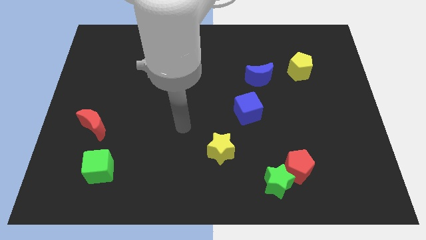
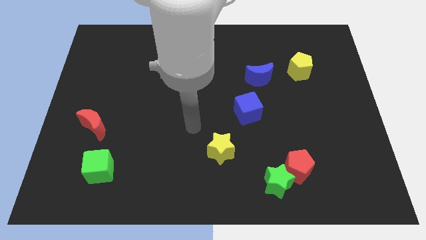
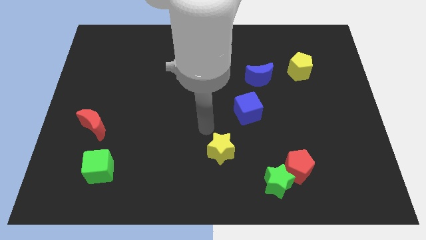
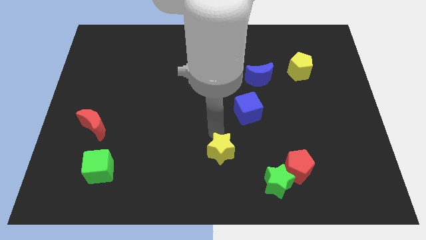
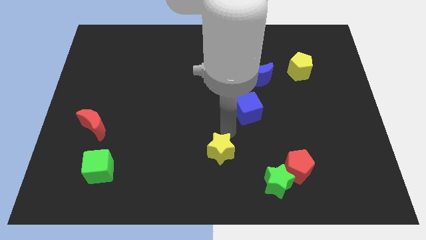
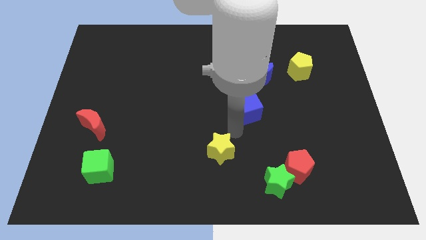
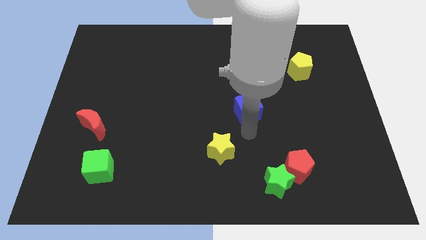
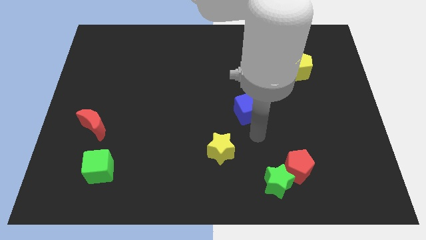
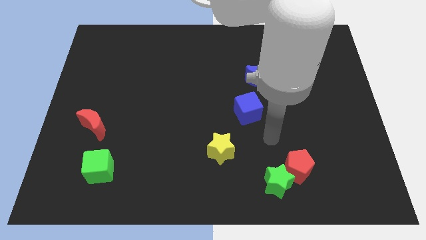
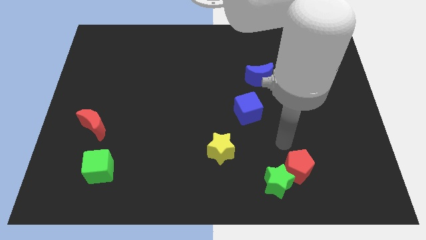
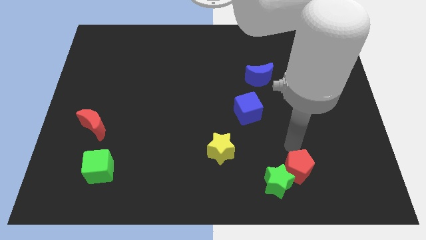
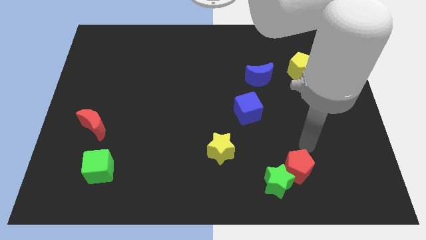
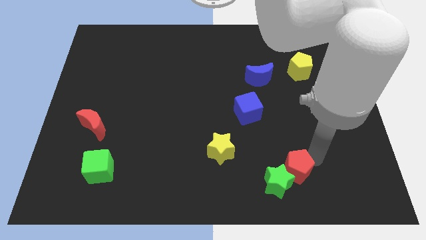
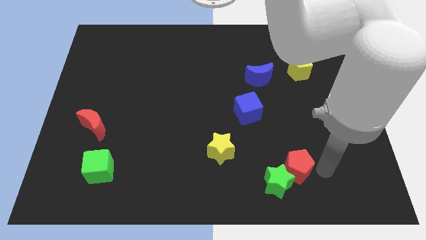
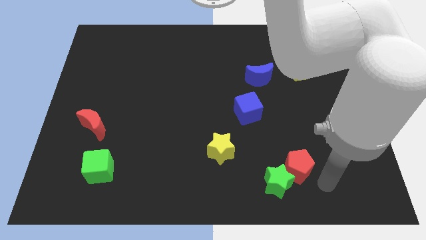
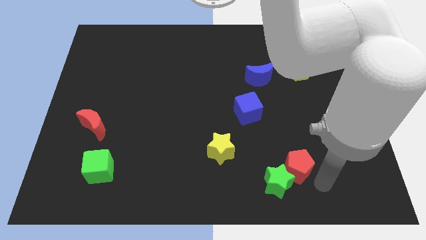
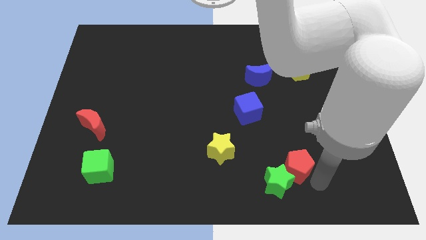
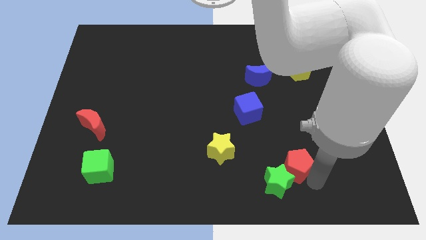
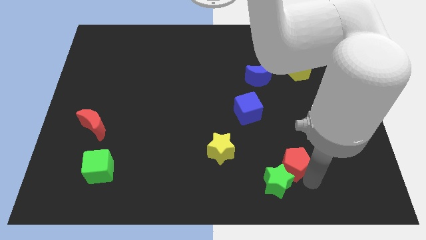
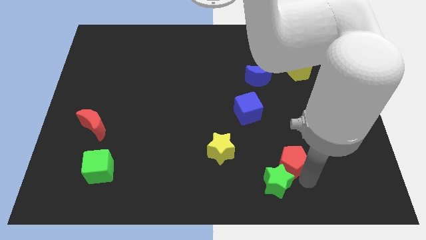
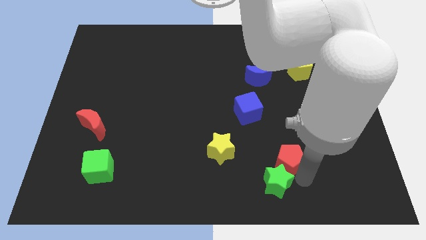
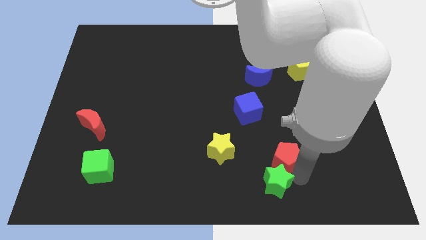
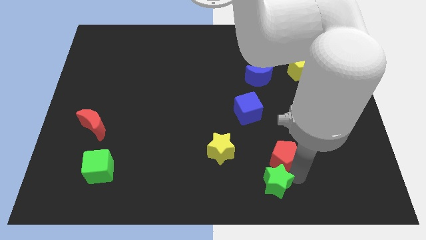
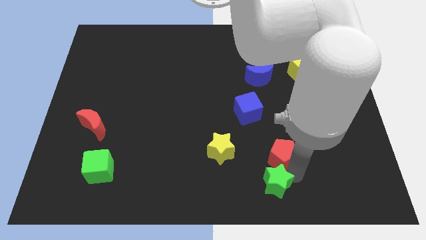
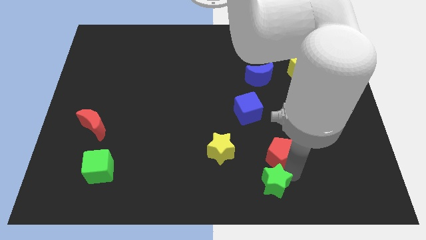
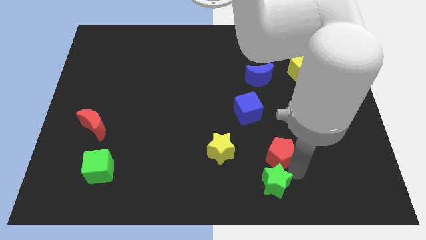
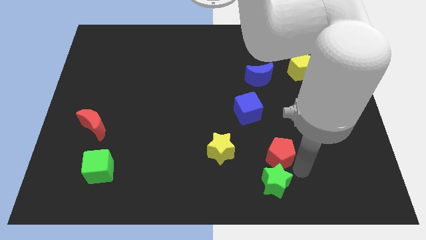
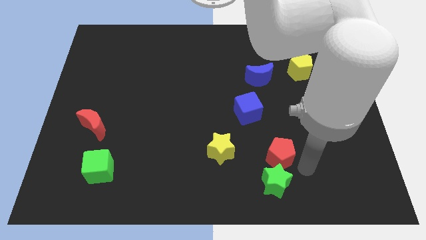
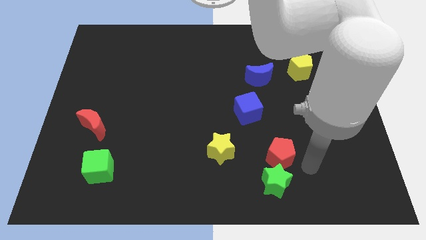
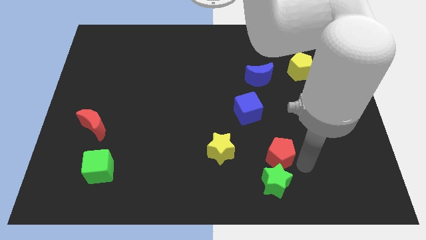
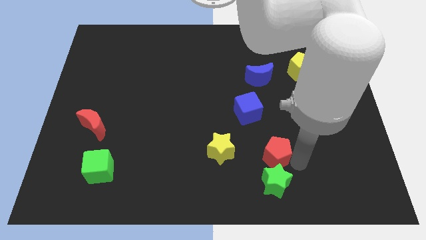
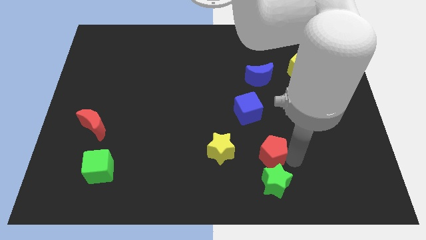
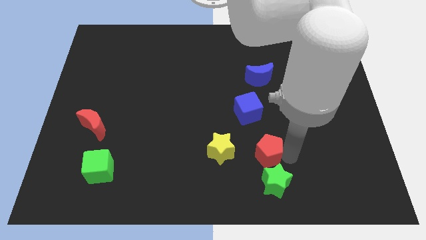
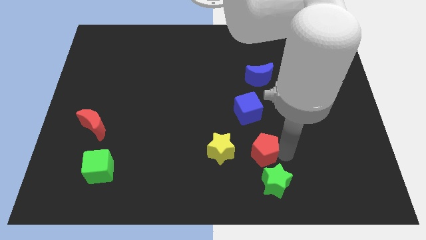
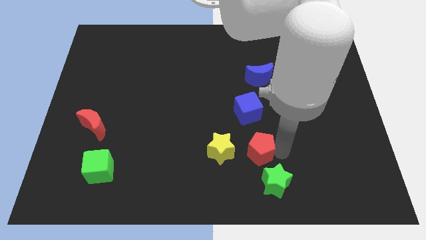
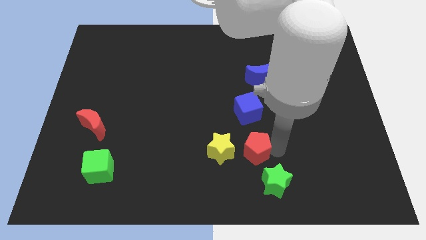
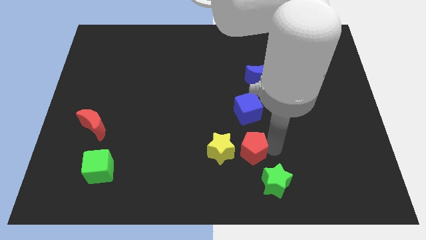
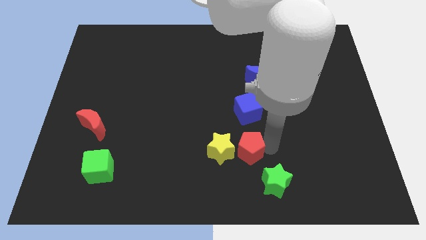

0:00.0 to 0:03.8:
push the red pentagon towards the yellow star

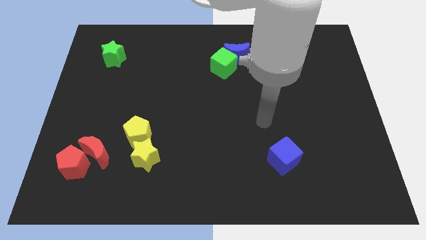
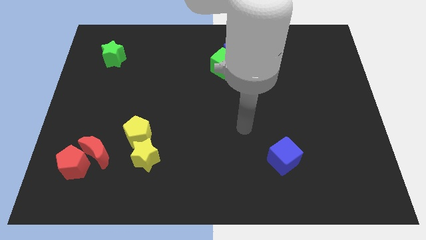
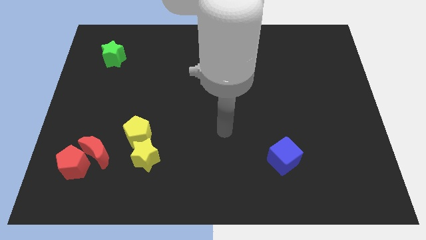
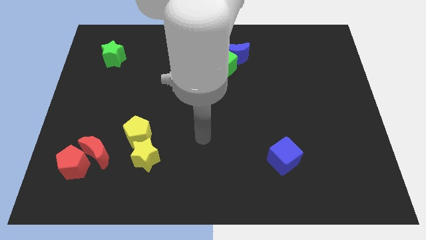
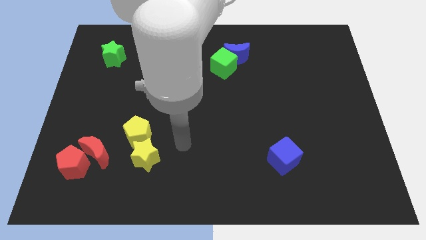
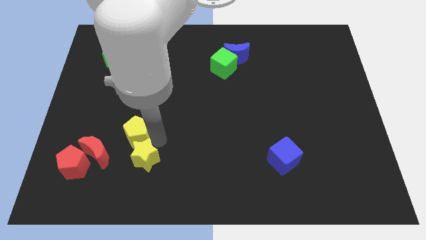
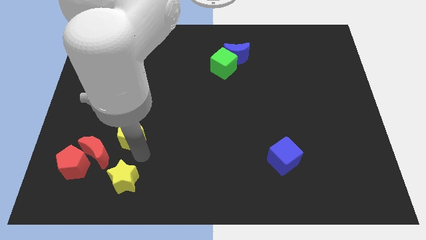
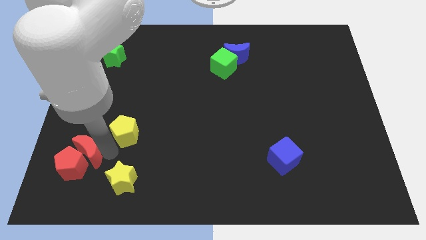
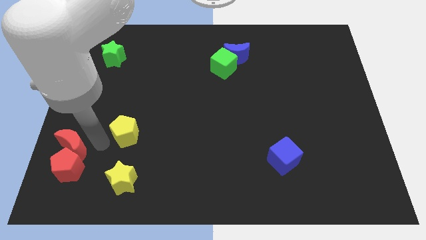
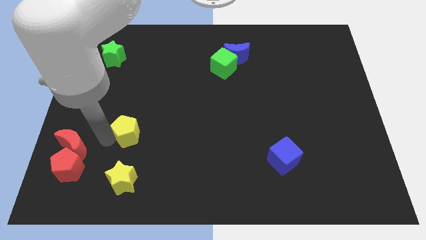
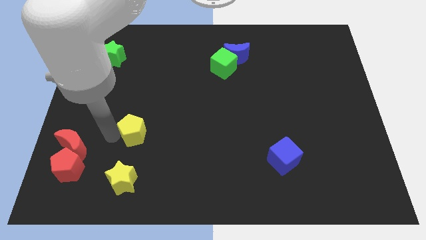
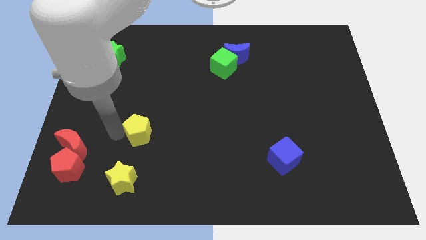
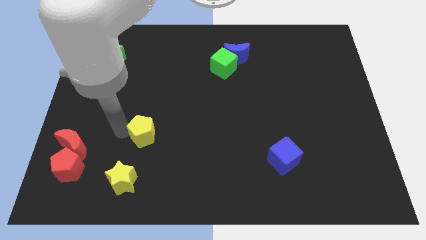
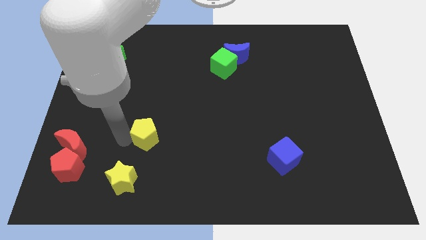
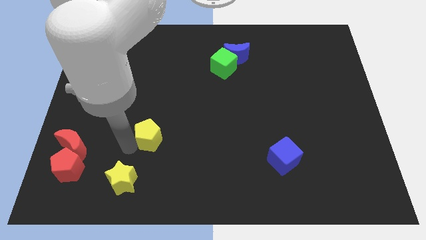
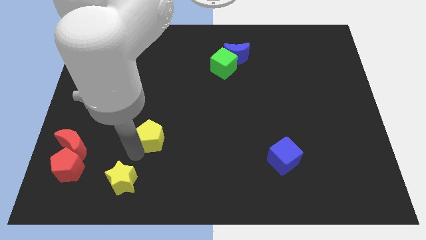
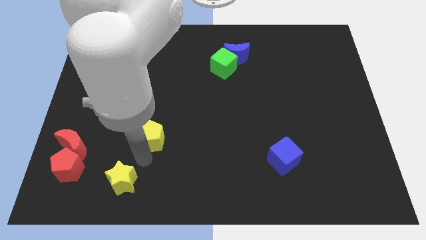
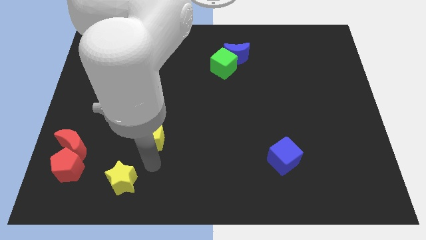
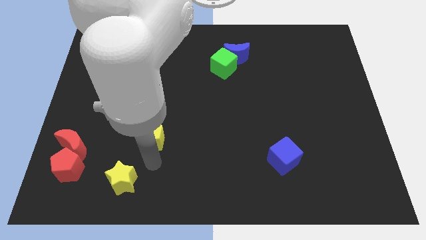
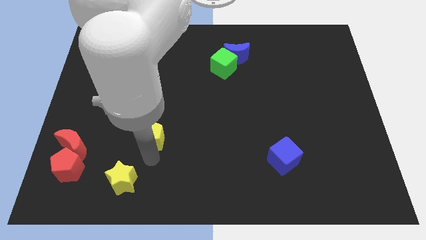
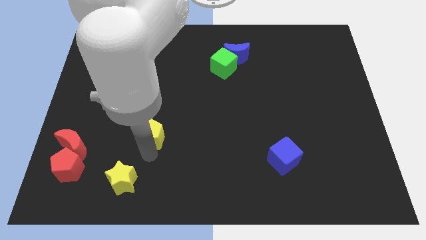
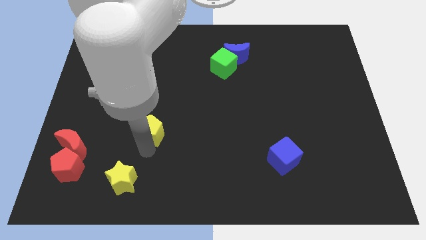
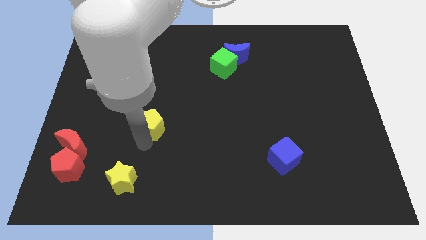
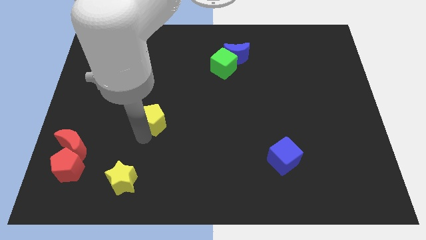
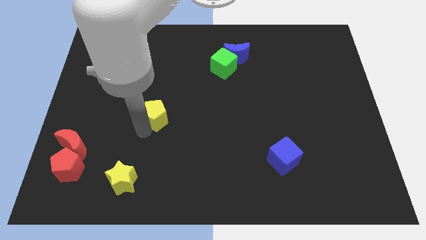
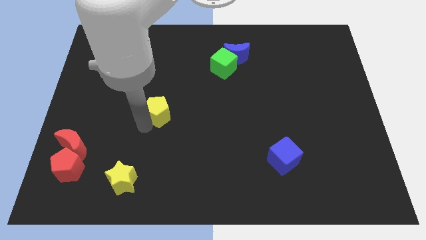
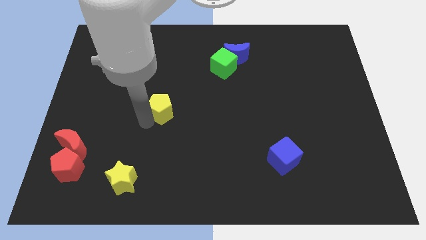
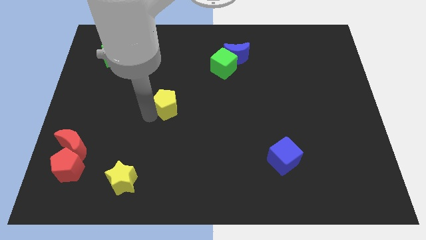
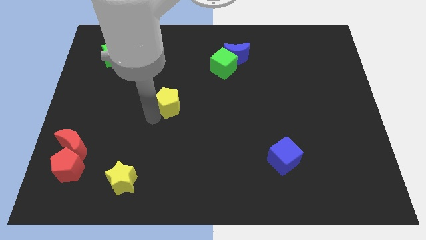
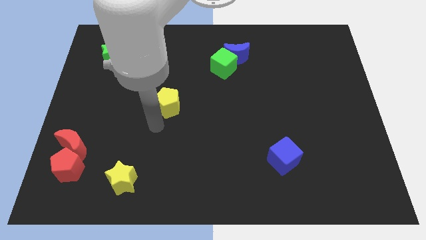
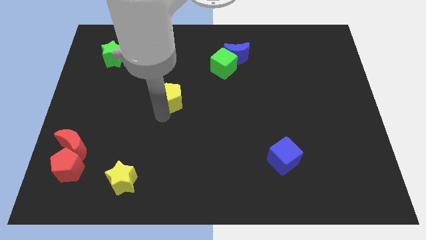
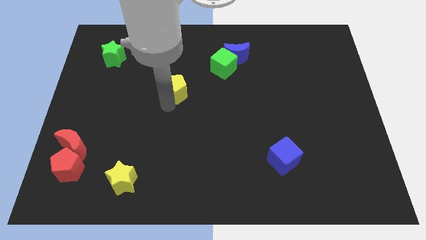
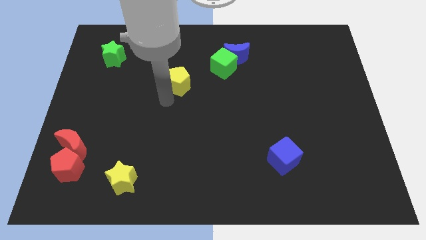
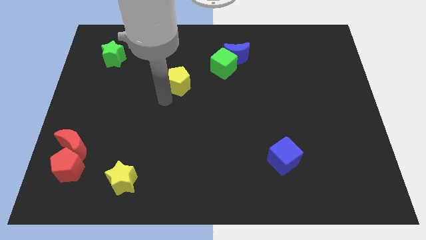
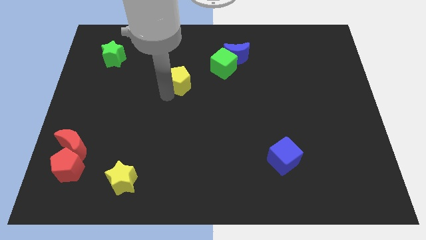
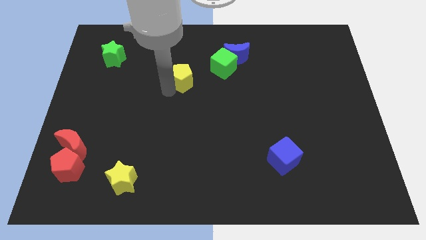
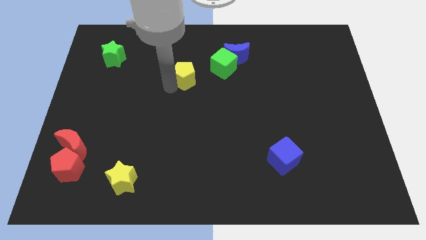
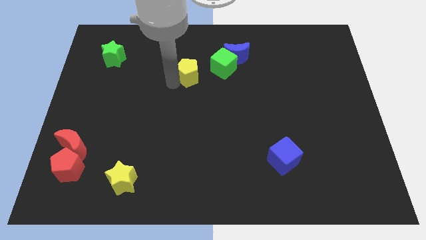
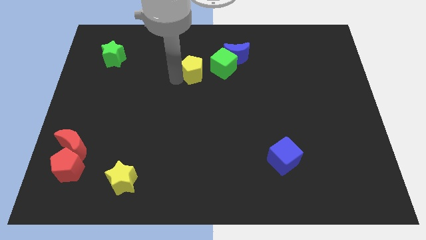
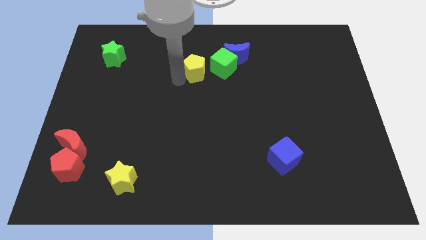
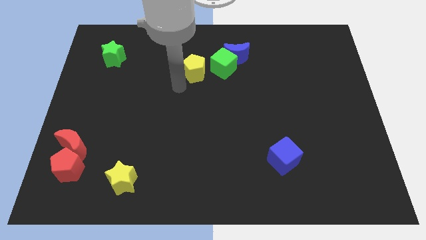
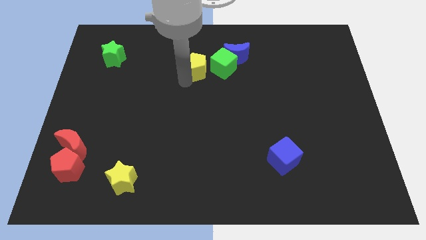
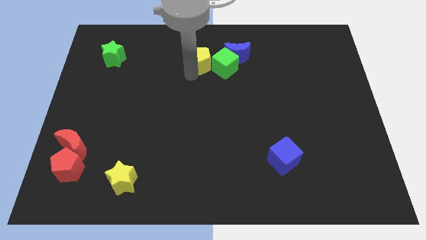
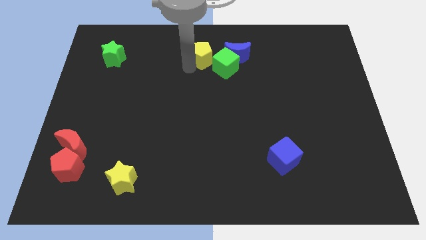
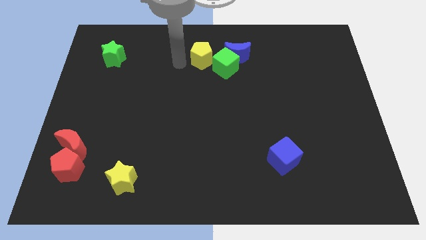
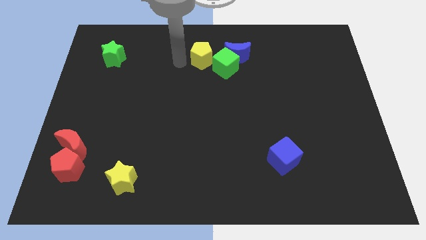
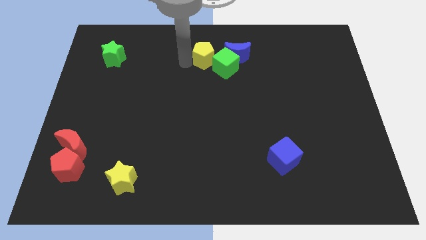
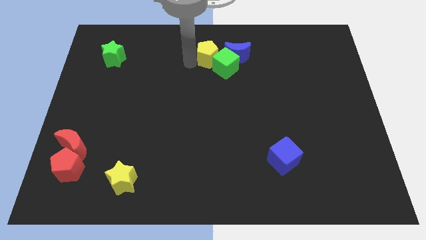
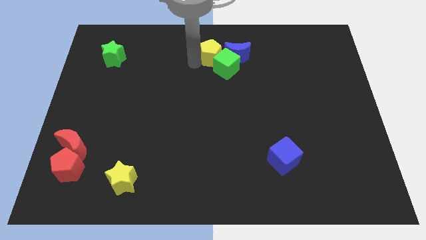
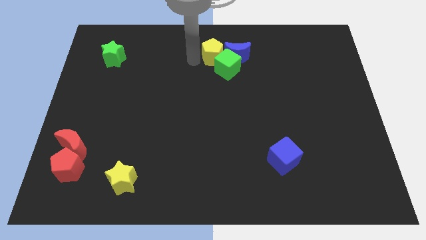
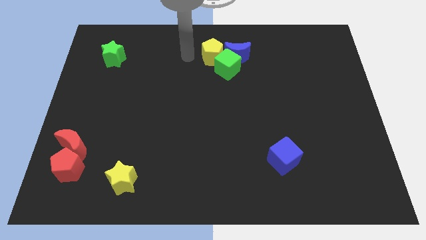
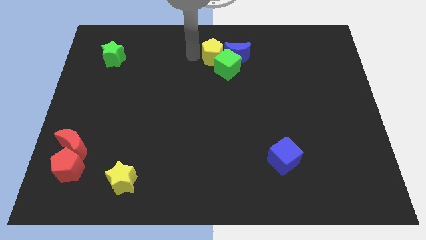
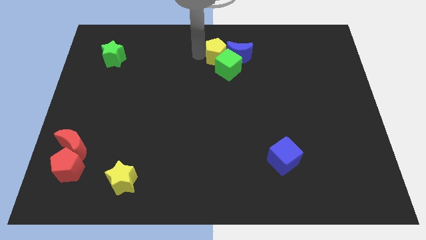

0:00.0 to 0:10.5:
move the yellow pentagon close to the blue moon
